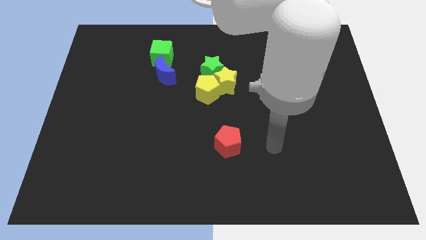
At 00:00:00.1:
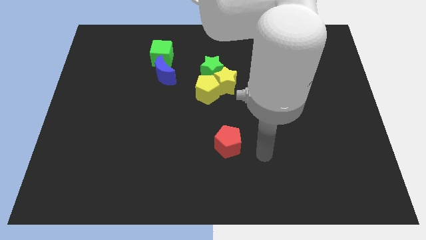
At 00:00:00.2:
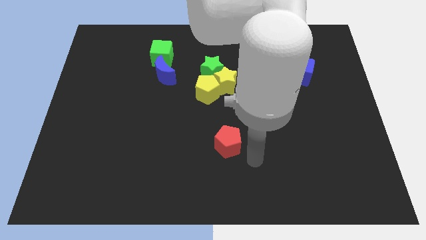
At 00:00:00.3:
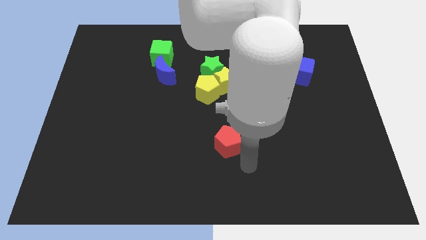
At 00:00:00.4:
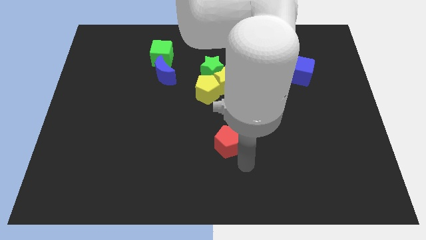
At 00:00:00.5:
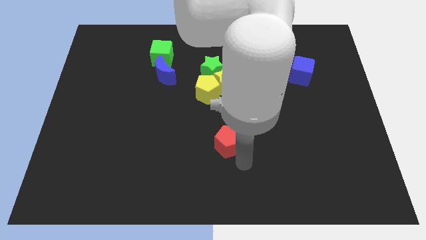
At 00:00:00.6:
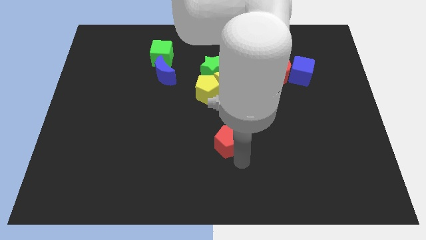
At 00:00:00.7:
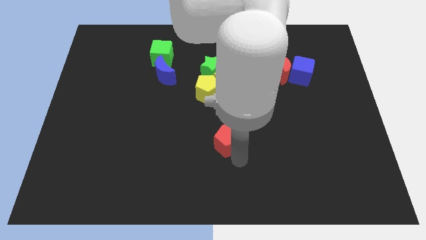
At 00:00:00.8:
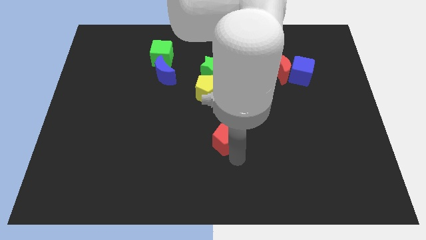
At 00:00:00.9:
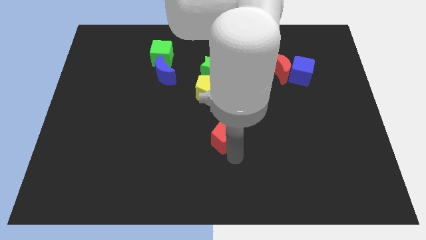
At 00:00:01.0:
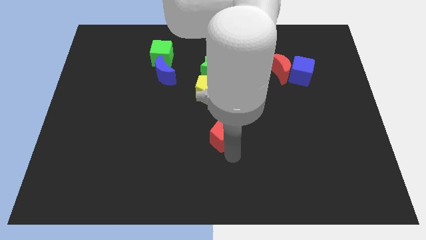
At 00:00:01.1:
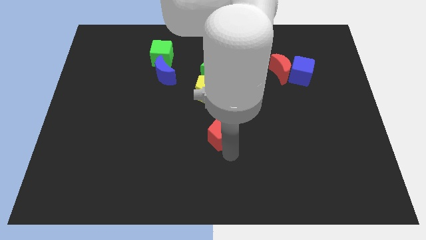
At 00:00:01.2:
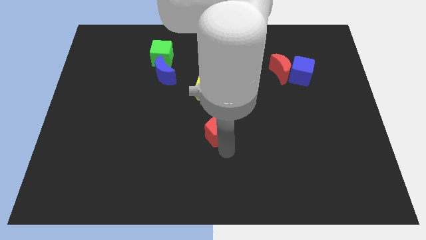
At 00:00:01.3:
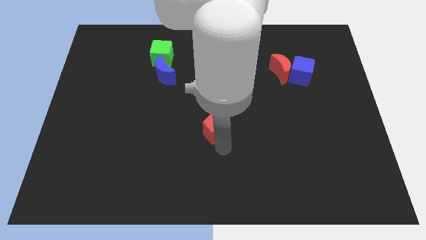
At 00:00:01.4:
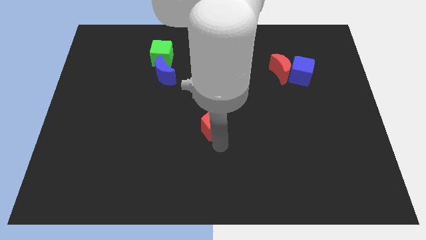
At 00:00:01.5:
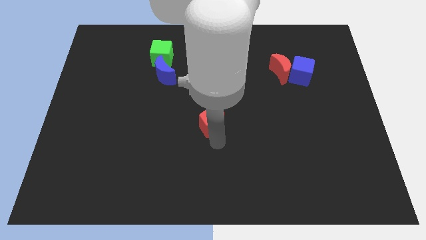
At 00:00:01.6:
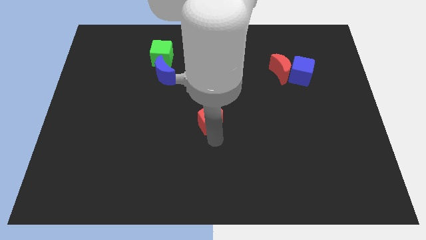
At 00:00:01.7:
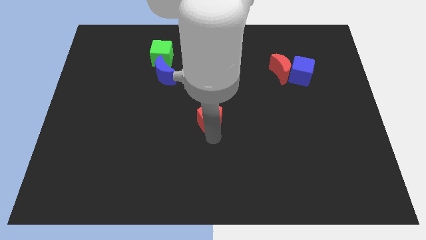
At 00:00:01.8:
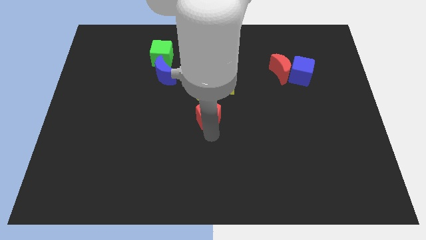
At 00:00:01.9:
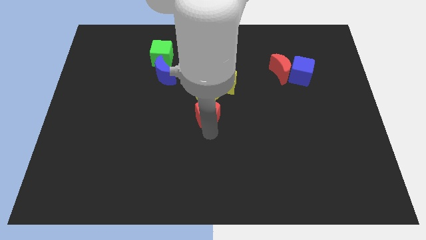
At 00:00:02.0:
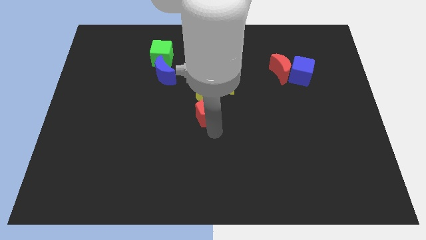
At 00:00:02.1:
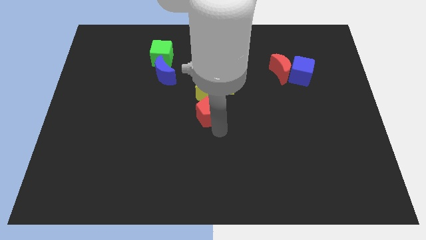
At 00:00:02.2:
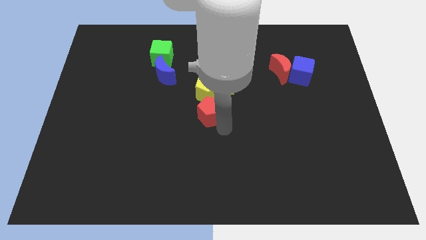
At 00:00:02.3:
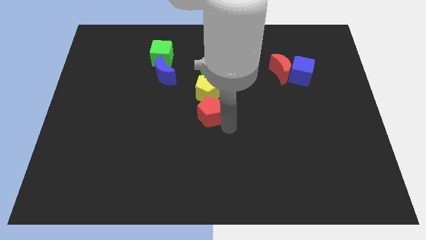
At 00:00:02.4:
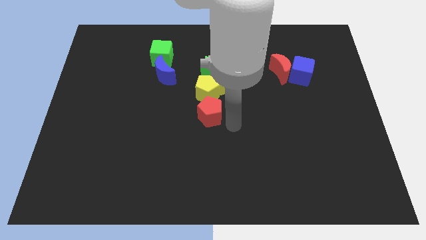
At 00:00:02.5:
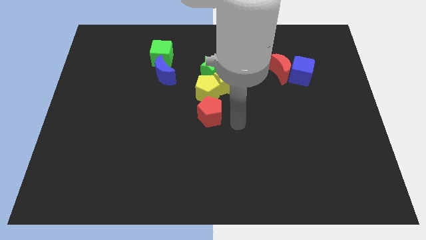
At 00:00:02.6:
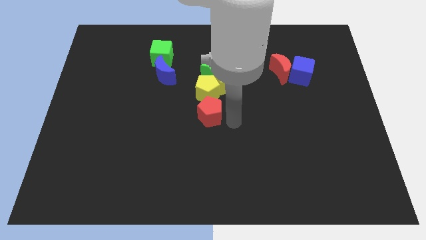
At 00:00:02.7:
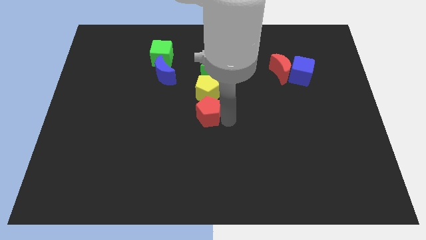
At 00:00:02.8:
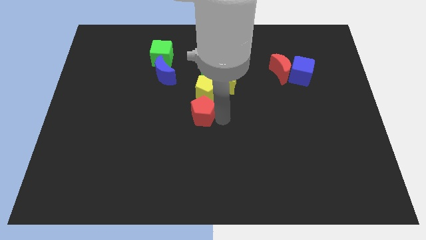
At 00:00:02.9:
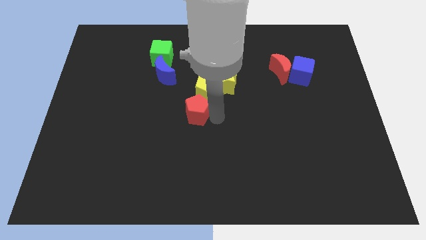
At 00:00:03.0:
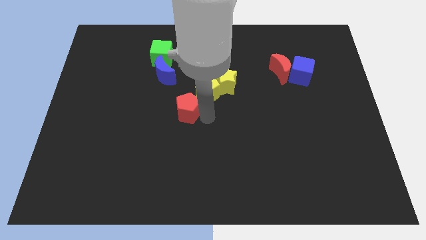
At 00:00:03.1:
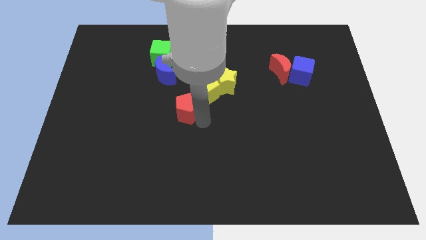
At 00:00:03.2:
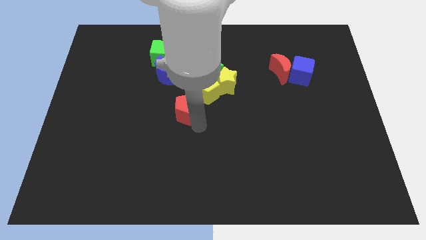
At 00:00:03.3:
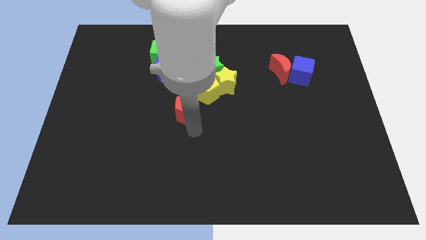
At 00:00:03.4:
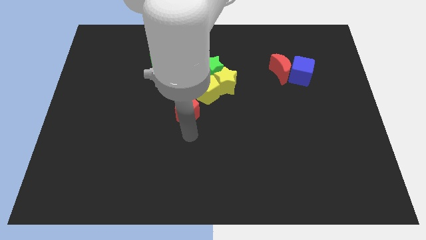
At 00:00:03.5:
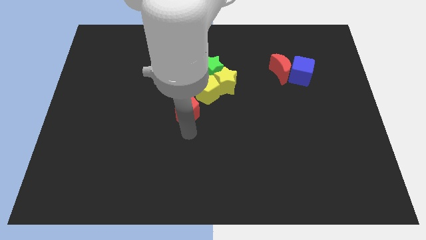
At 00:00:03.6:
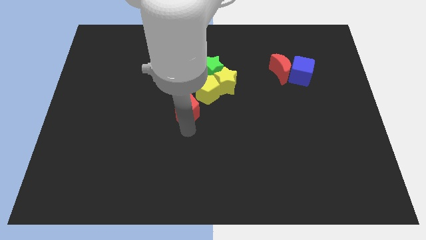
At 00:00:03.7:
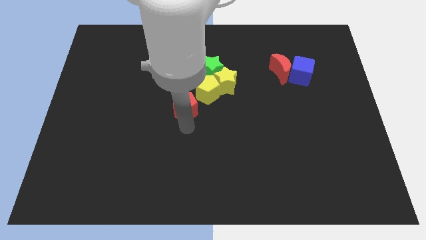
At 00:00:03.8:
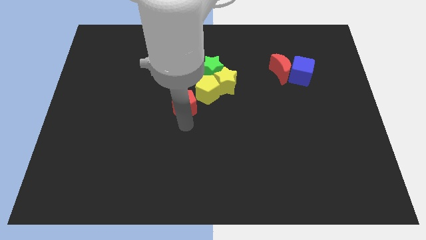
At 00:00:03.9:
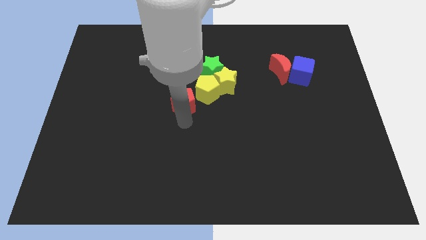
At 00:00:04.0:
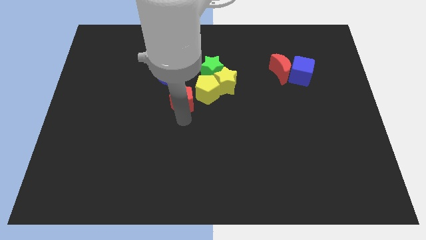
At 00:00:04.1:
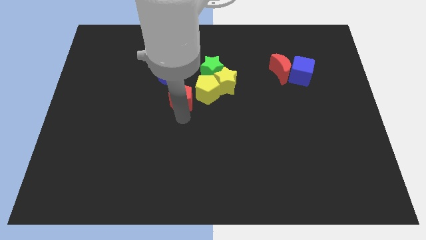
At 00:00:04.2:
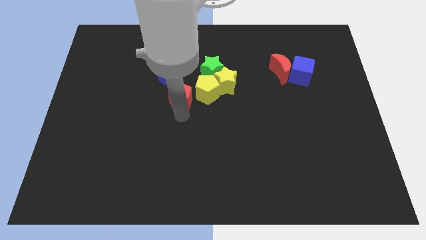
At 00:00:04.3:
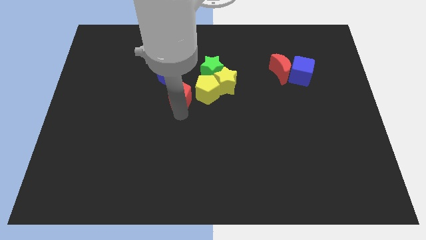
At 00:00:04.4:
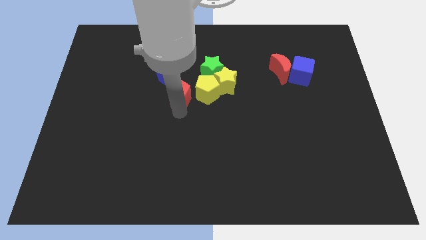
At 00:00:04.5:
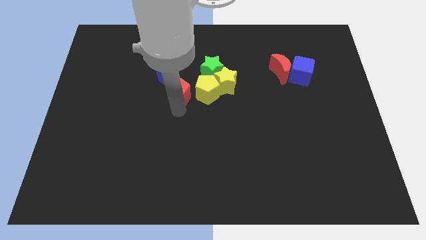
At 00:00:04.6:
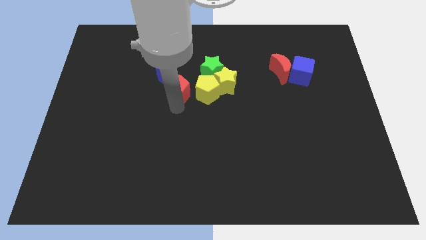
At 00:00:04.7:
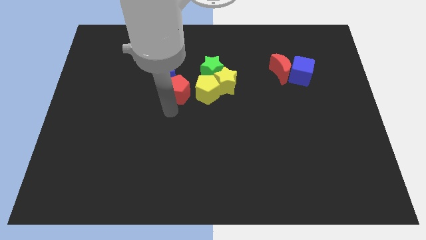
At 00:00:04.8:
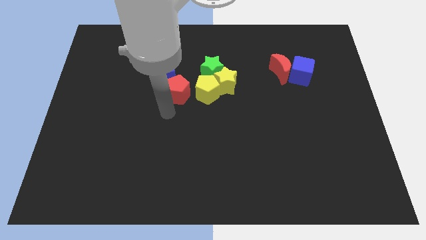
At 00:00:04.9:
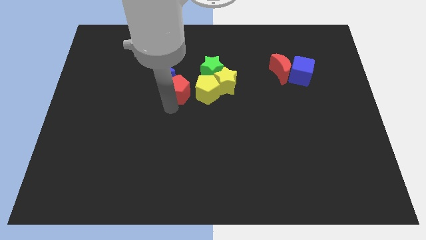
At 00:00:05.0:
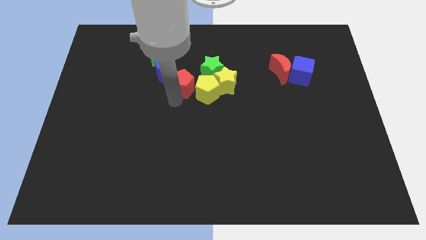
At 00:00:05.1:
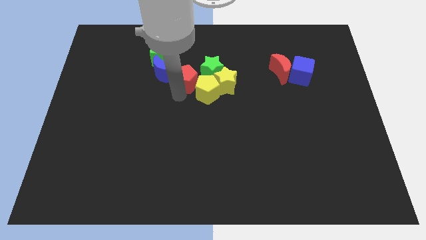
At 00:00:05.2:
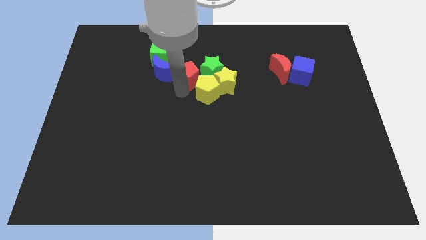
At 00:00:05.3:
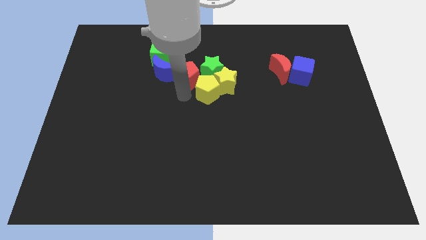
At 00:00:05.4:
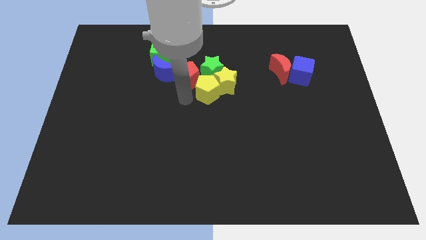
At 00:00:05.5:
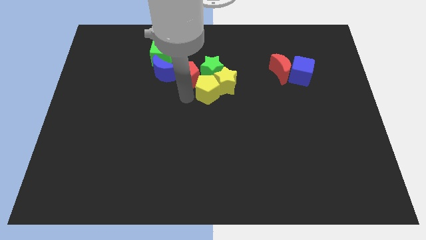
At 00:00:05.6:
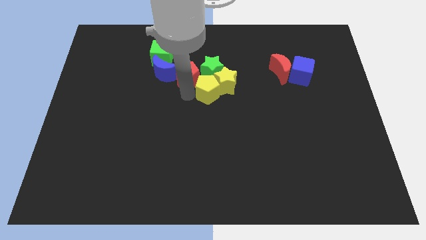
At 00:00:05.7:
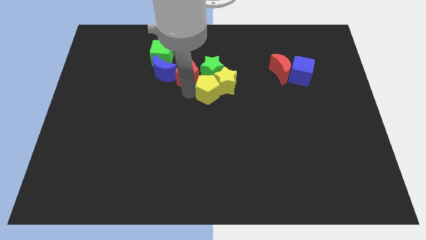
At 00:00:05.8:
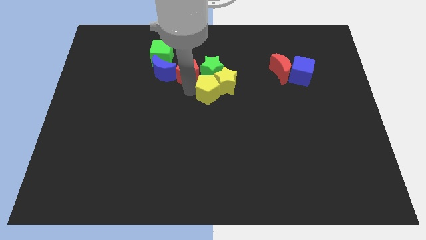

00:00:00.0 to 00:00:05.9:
push the red pentagon to the top left side of the green star

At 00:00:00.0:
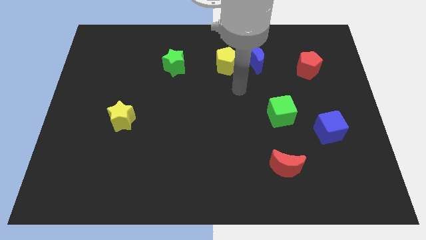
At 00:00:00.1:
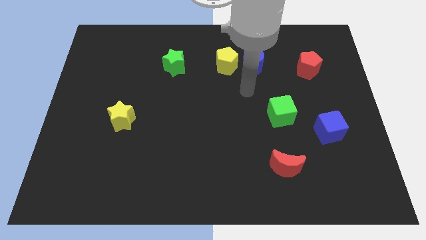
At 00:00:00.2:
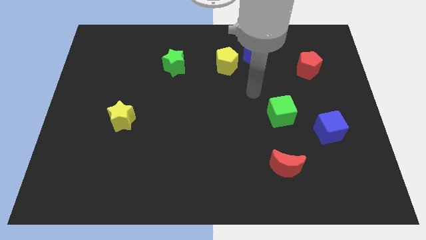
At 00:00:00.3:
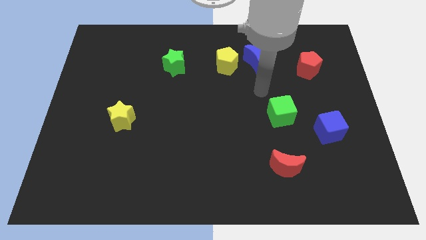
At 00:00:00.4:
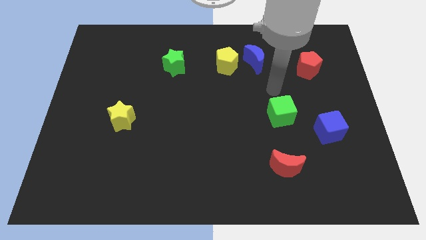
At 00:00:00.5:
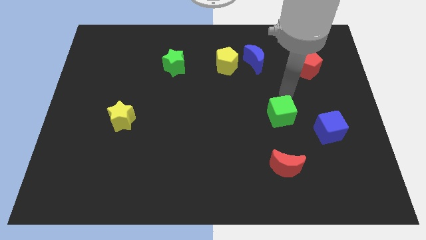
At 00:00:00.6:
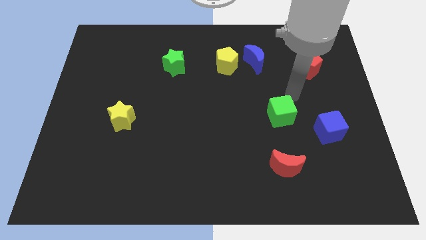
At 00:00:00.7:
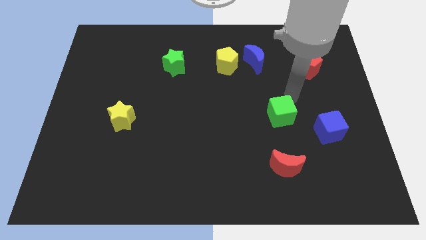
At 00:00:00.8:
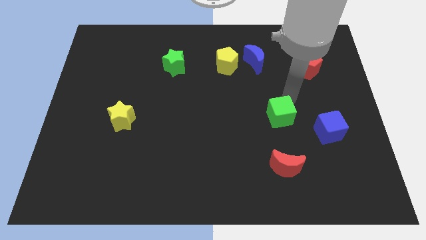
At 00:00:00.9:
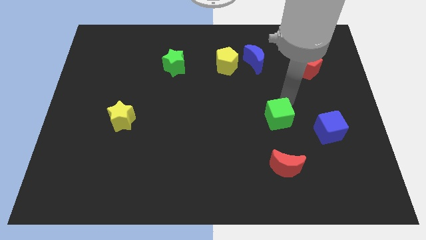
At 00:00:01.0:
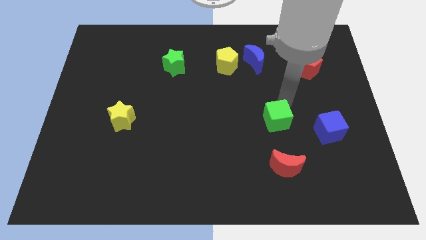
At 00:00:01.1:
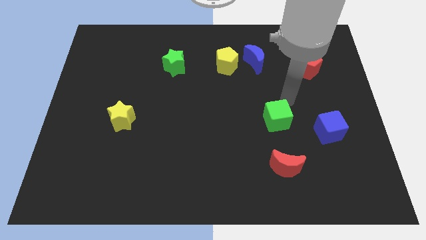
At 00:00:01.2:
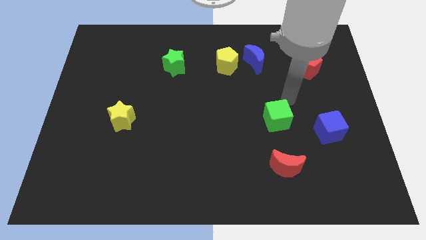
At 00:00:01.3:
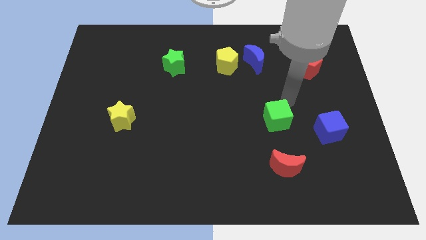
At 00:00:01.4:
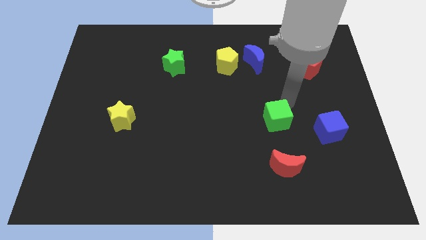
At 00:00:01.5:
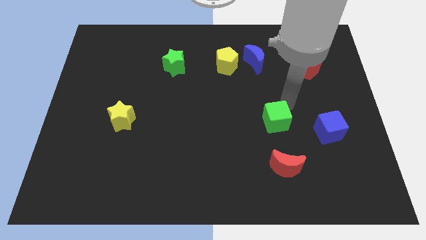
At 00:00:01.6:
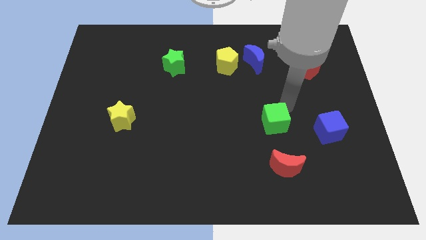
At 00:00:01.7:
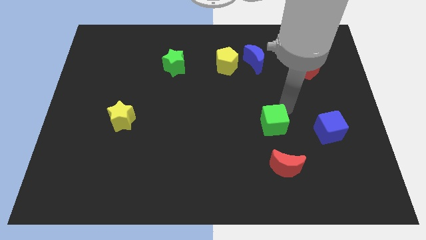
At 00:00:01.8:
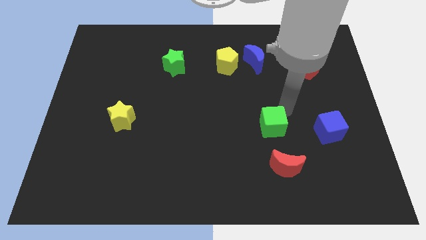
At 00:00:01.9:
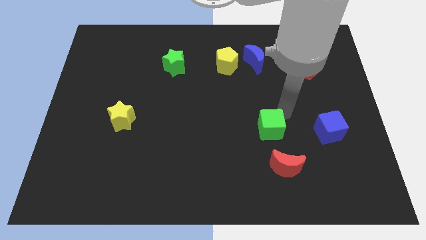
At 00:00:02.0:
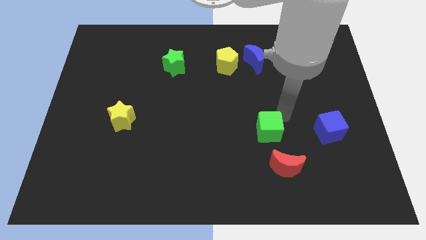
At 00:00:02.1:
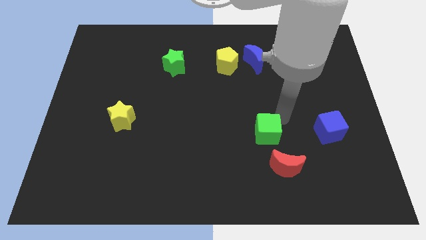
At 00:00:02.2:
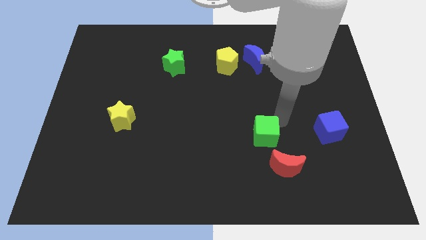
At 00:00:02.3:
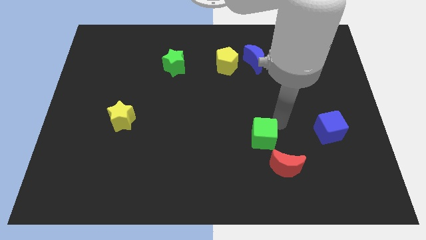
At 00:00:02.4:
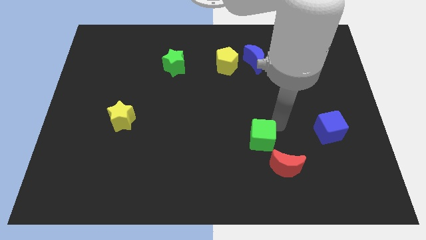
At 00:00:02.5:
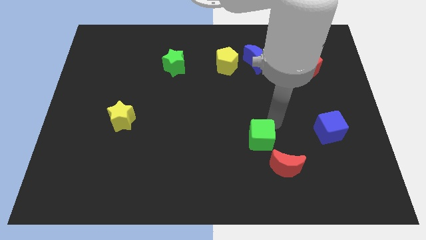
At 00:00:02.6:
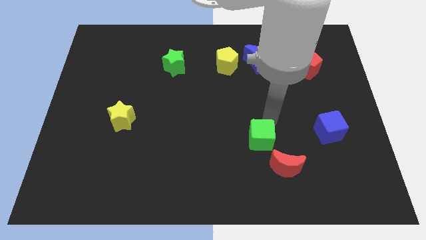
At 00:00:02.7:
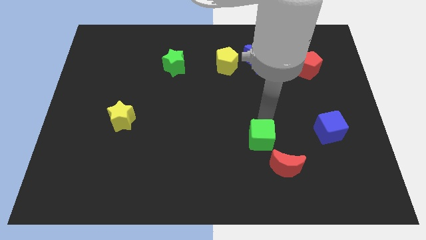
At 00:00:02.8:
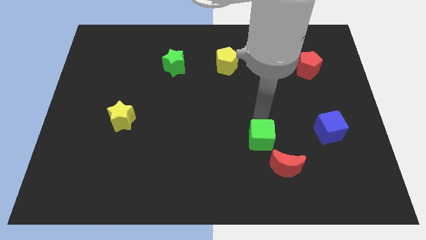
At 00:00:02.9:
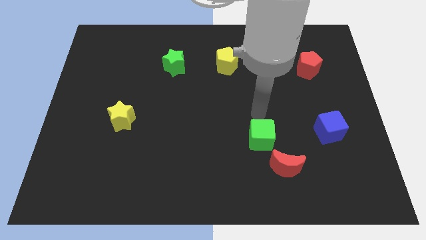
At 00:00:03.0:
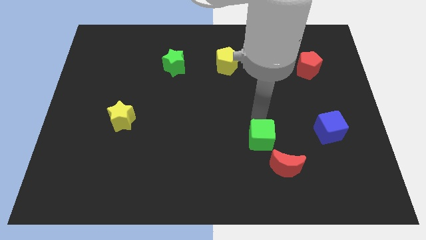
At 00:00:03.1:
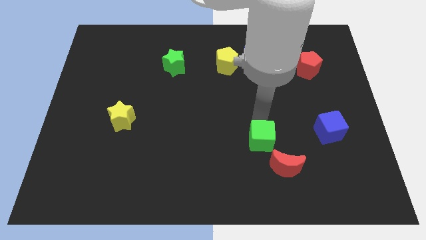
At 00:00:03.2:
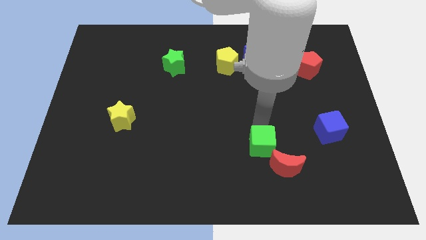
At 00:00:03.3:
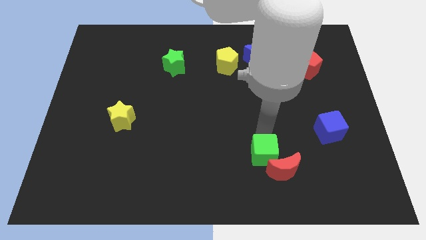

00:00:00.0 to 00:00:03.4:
push the green cube just left of the red moon
